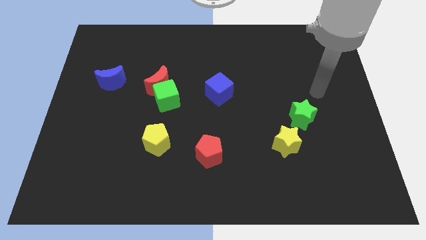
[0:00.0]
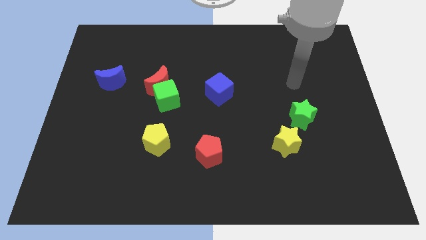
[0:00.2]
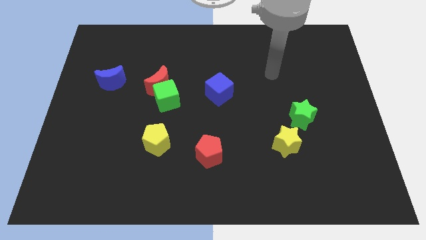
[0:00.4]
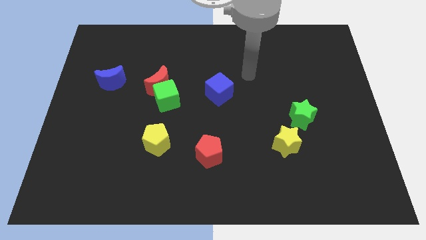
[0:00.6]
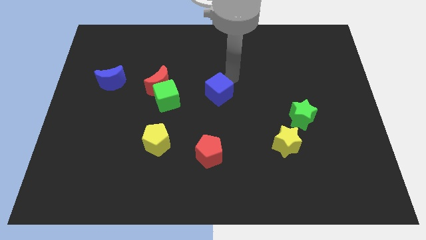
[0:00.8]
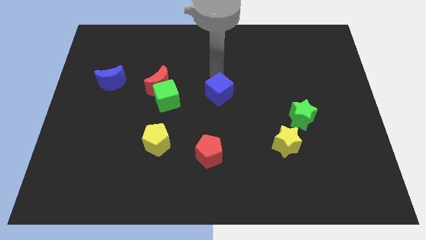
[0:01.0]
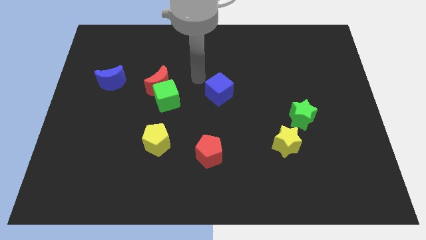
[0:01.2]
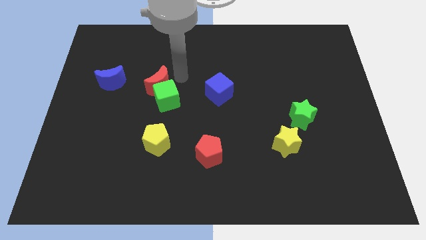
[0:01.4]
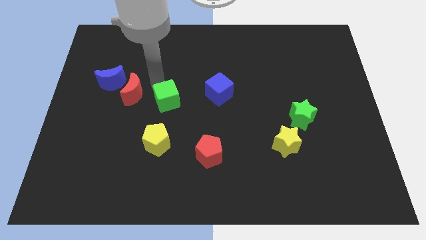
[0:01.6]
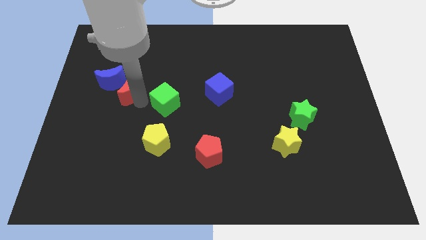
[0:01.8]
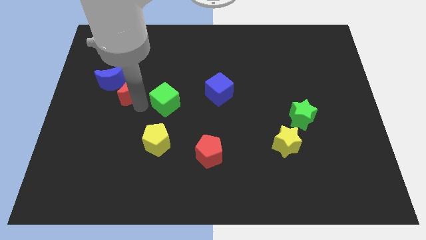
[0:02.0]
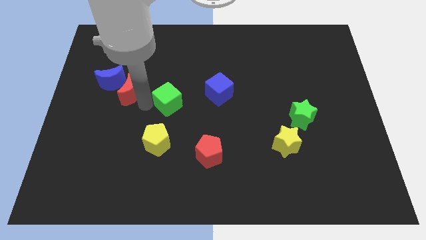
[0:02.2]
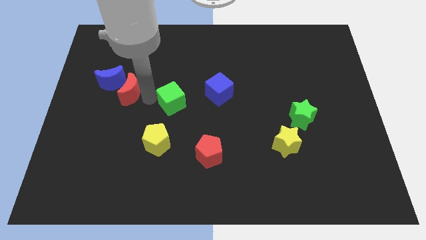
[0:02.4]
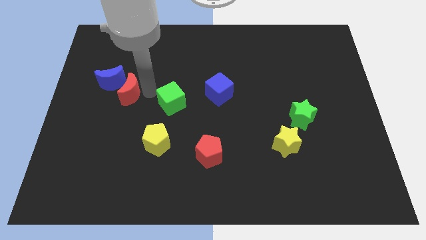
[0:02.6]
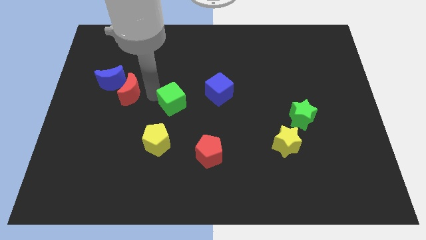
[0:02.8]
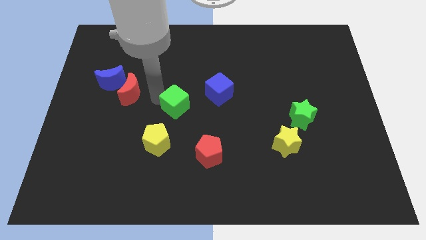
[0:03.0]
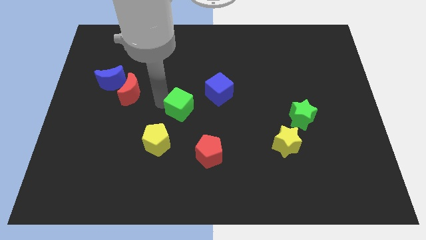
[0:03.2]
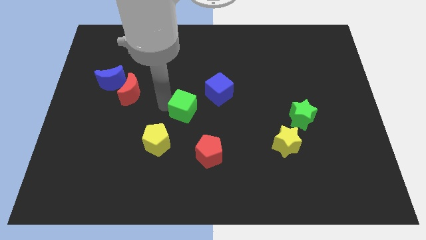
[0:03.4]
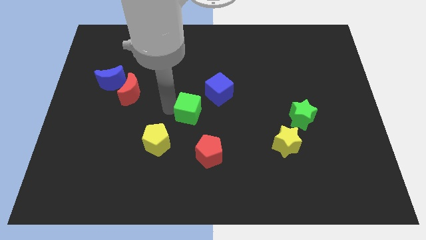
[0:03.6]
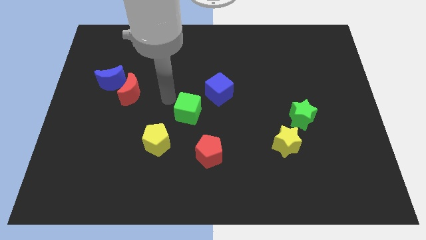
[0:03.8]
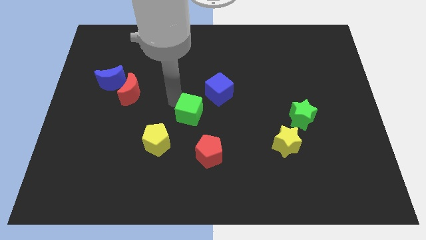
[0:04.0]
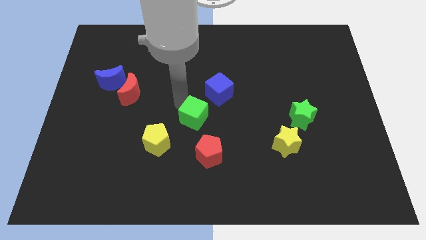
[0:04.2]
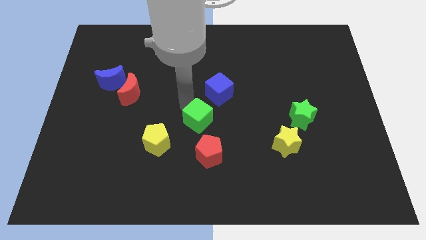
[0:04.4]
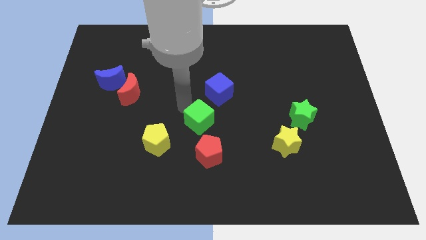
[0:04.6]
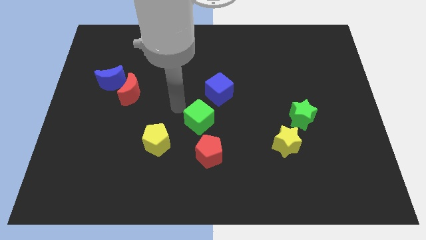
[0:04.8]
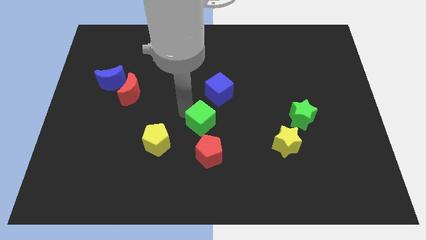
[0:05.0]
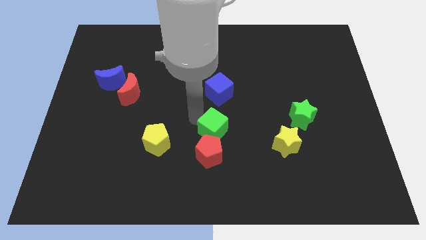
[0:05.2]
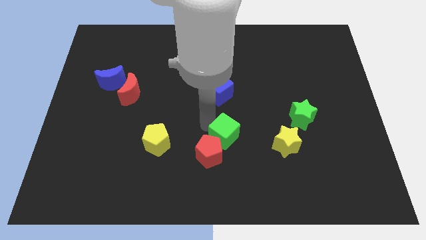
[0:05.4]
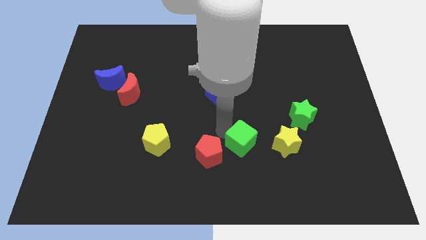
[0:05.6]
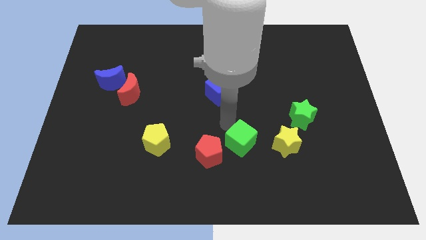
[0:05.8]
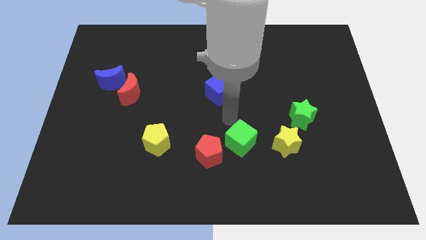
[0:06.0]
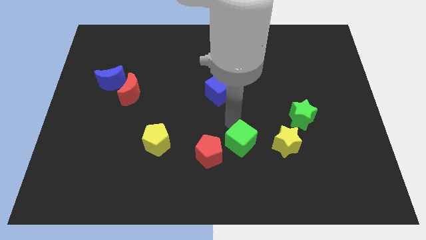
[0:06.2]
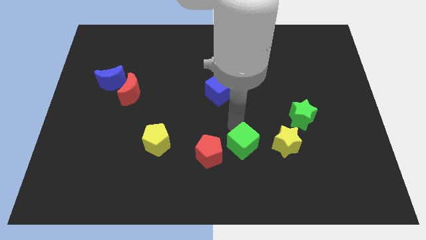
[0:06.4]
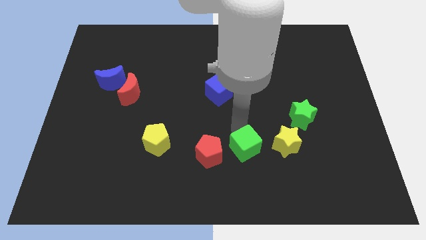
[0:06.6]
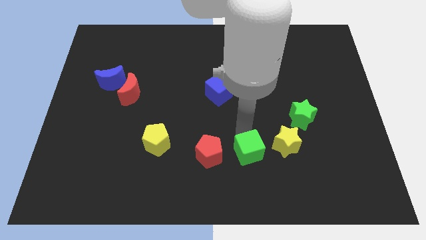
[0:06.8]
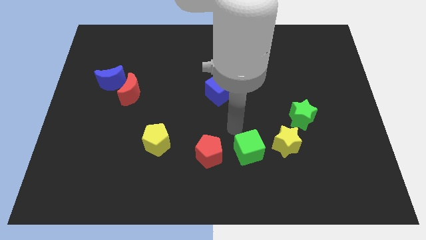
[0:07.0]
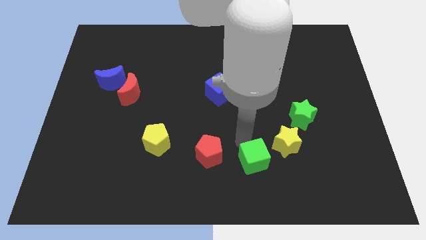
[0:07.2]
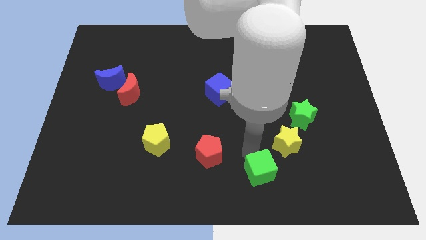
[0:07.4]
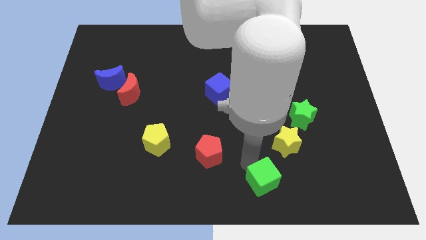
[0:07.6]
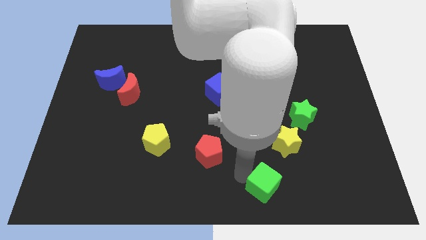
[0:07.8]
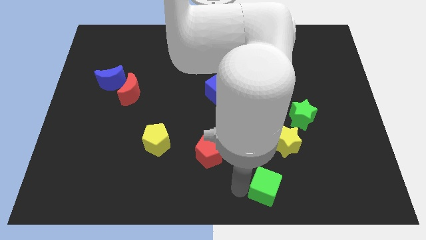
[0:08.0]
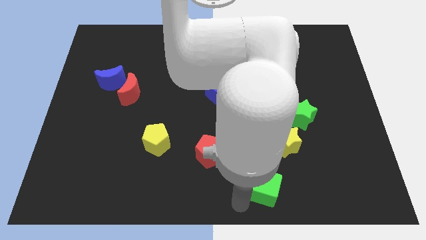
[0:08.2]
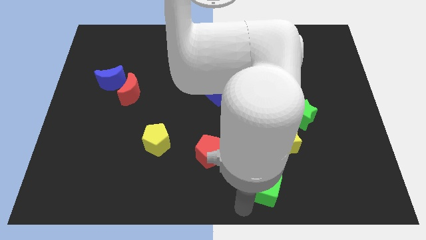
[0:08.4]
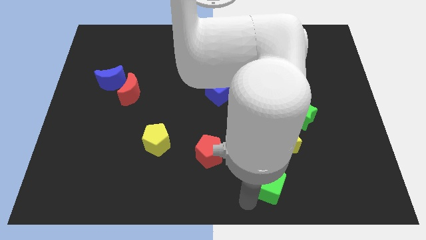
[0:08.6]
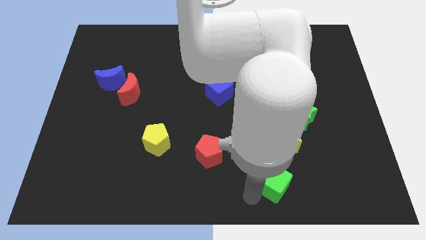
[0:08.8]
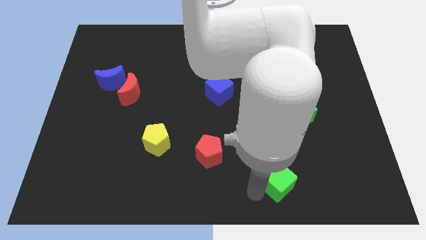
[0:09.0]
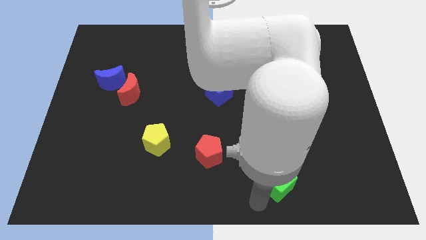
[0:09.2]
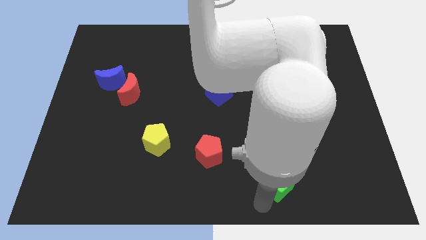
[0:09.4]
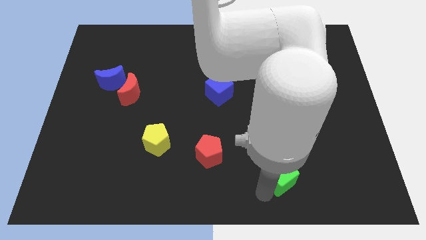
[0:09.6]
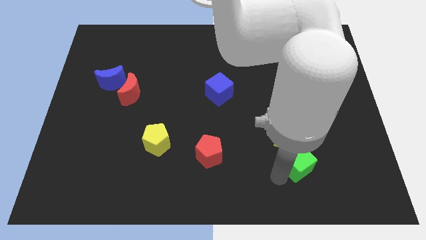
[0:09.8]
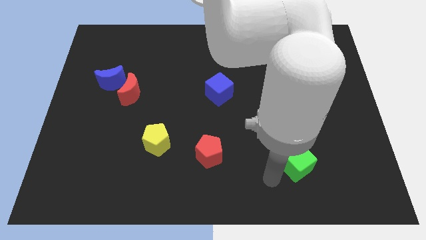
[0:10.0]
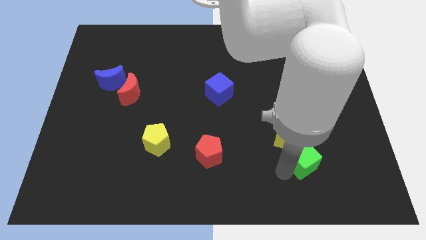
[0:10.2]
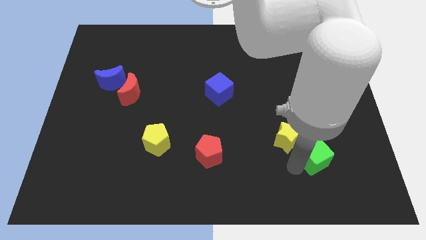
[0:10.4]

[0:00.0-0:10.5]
slide the green cube right of the yellow star

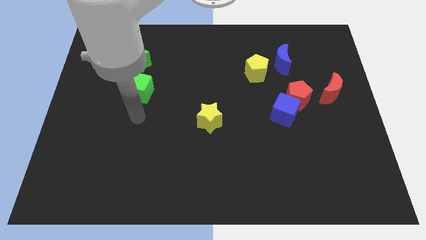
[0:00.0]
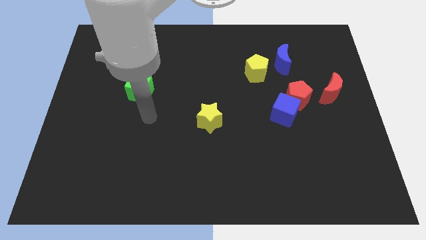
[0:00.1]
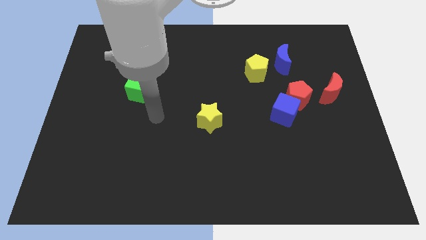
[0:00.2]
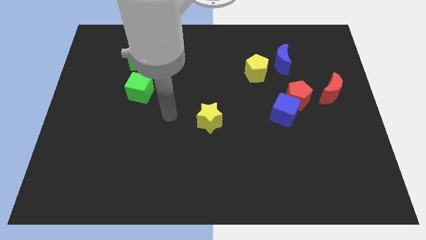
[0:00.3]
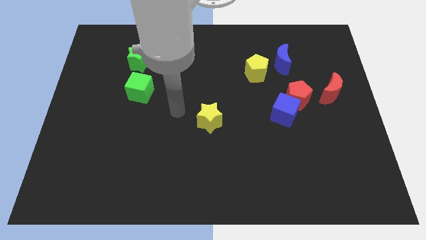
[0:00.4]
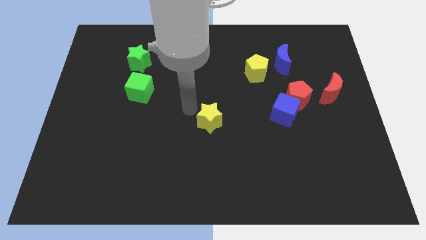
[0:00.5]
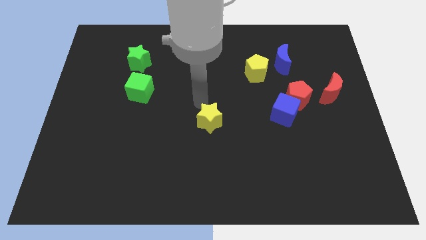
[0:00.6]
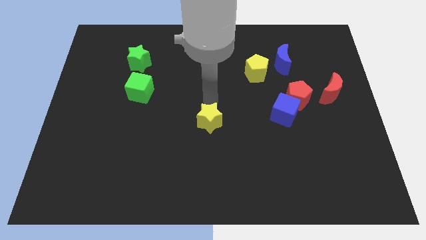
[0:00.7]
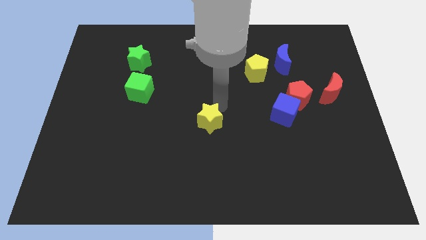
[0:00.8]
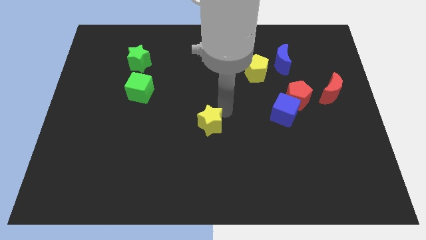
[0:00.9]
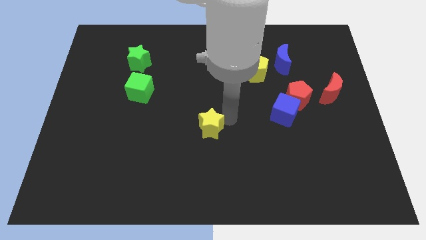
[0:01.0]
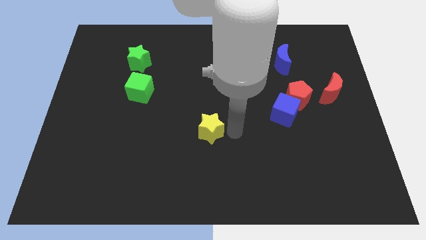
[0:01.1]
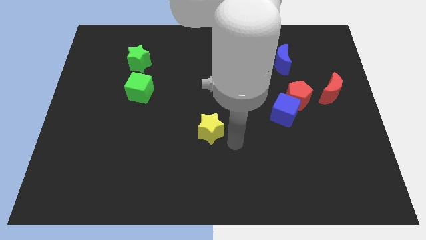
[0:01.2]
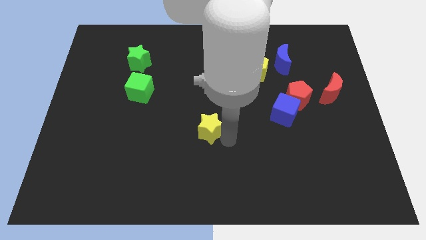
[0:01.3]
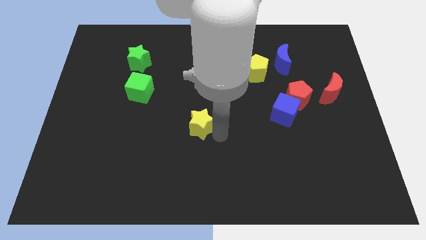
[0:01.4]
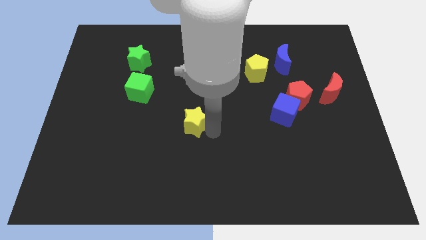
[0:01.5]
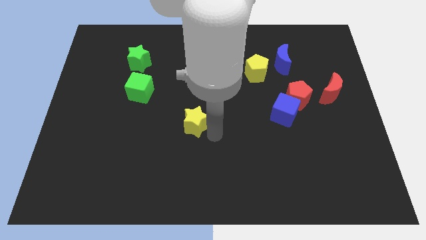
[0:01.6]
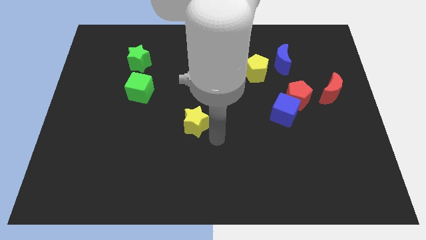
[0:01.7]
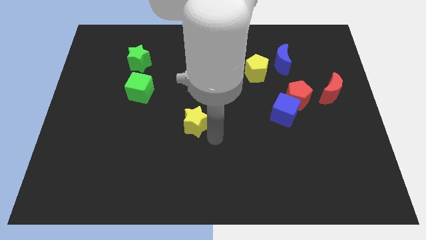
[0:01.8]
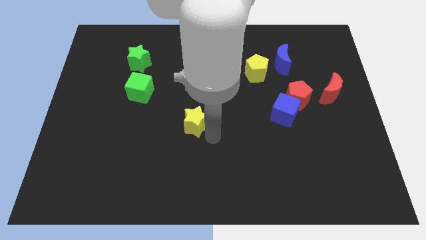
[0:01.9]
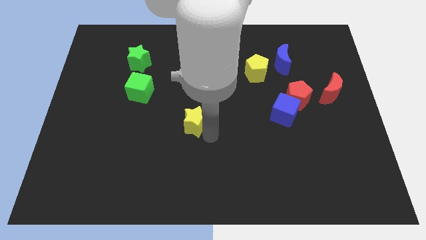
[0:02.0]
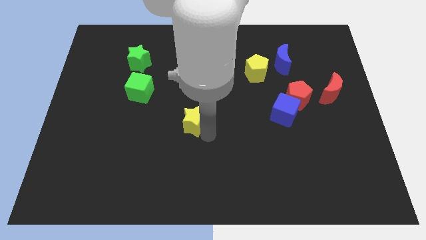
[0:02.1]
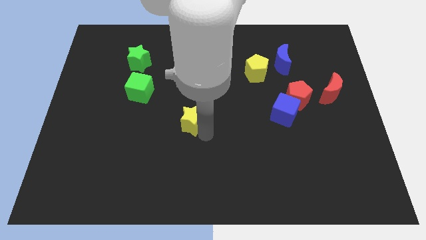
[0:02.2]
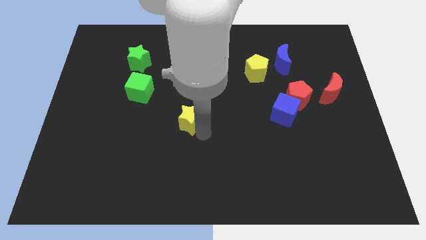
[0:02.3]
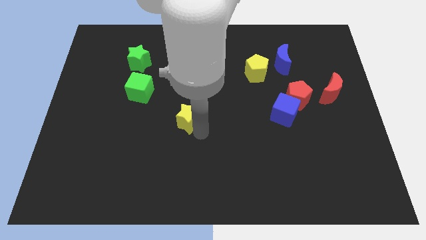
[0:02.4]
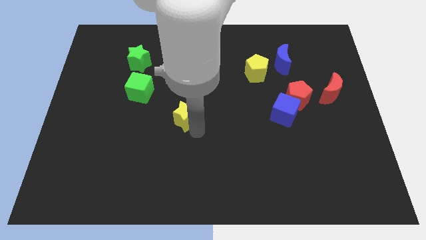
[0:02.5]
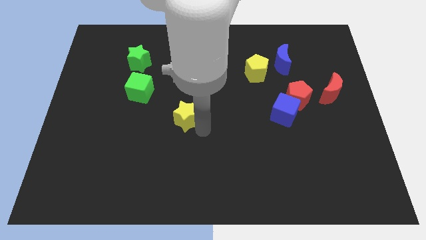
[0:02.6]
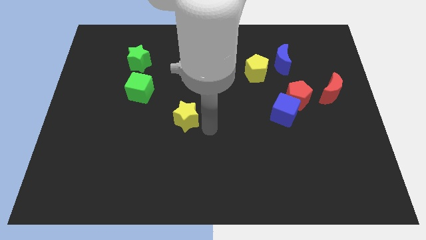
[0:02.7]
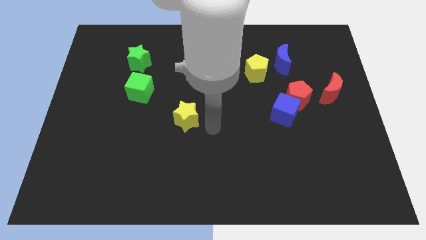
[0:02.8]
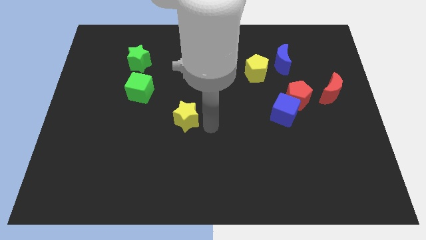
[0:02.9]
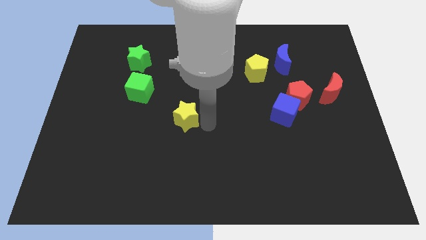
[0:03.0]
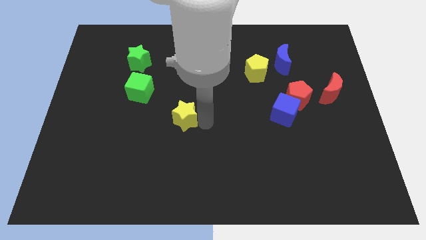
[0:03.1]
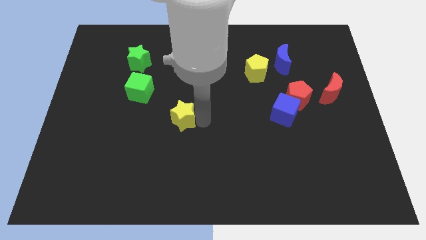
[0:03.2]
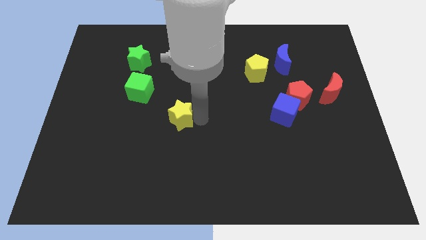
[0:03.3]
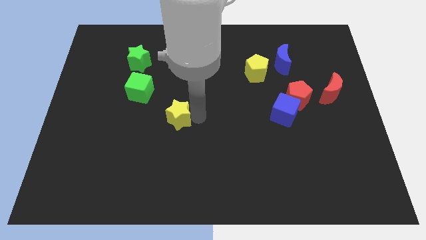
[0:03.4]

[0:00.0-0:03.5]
slide the yellow star diagonally down and to the right of the green cube
